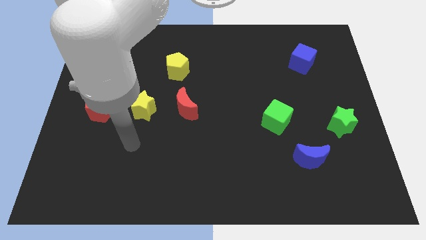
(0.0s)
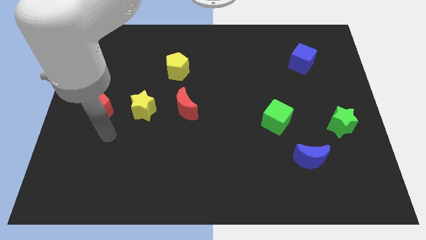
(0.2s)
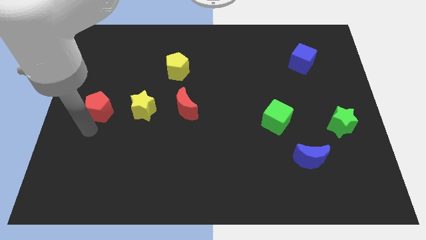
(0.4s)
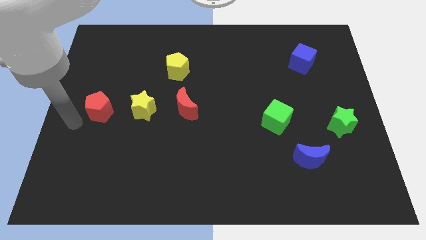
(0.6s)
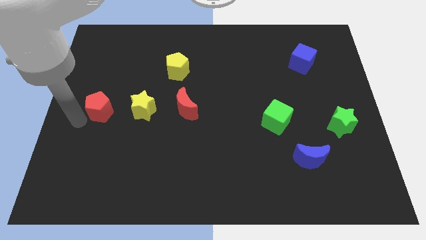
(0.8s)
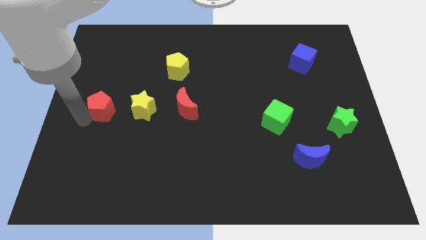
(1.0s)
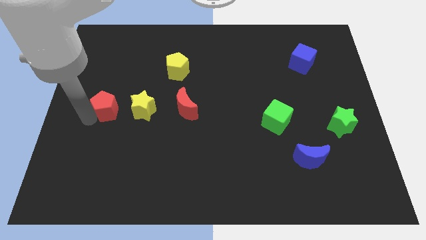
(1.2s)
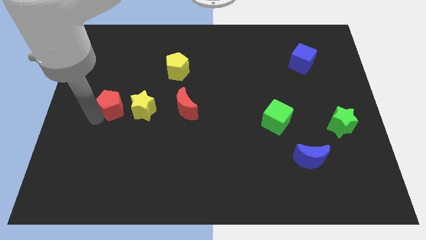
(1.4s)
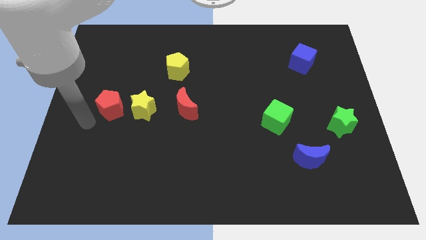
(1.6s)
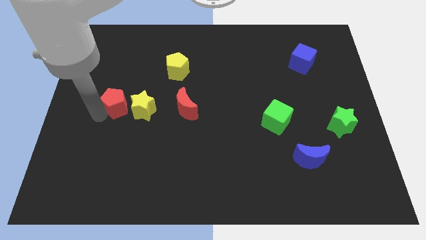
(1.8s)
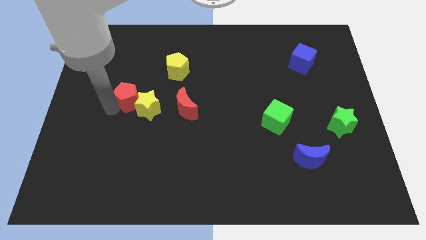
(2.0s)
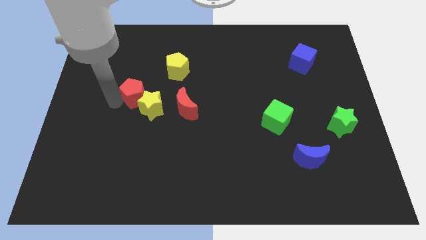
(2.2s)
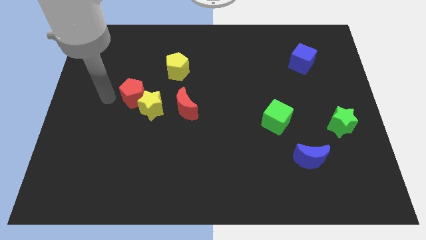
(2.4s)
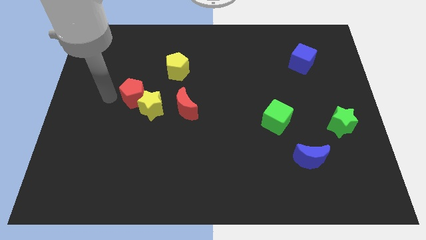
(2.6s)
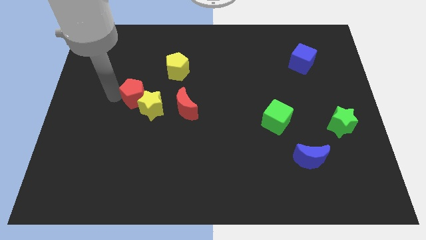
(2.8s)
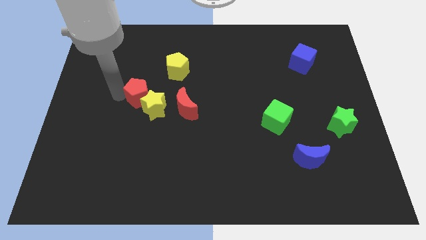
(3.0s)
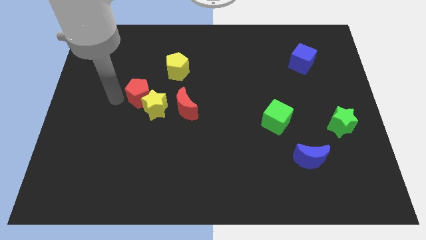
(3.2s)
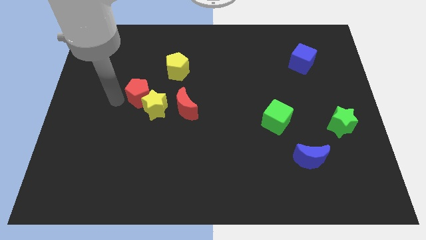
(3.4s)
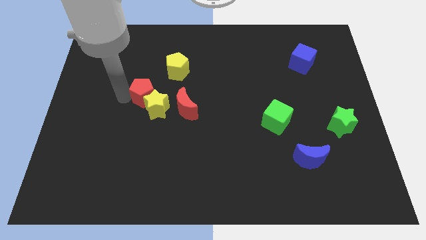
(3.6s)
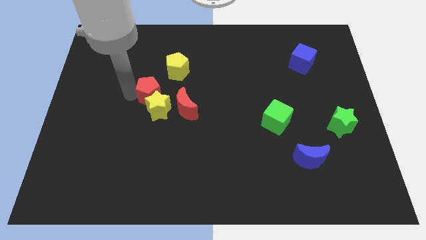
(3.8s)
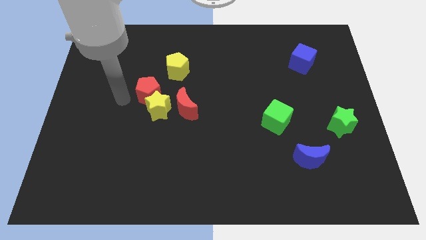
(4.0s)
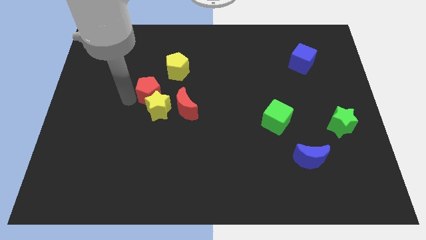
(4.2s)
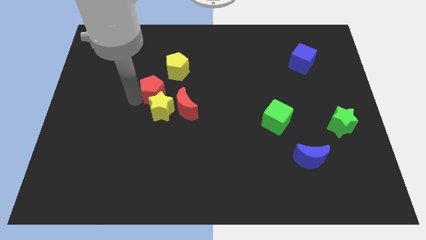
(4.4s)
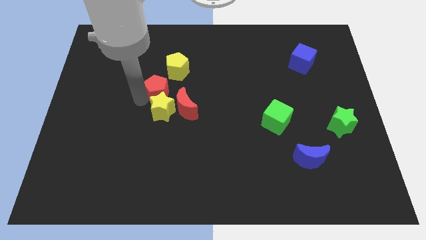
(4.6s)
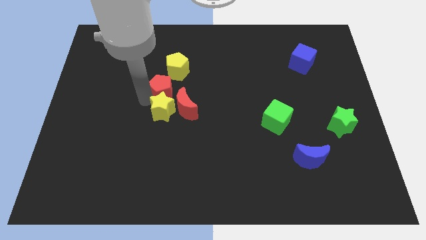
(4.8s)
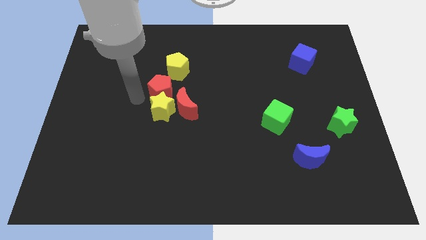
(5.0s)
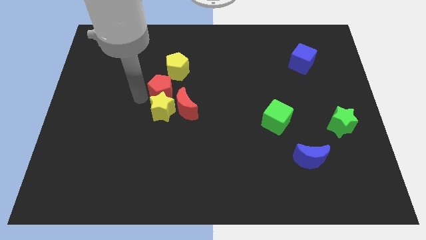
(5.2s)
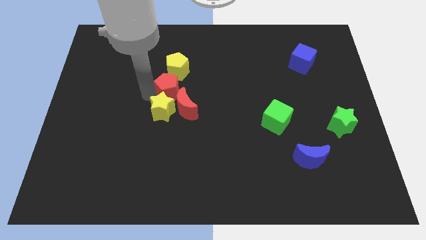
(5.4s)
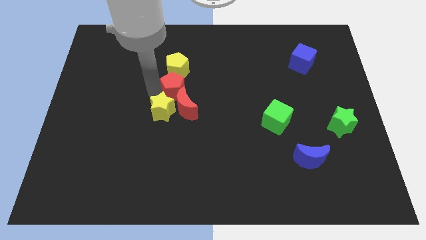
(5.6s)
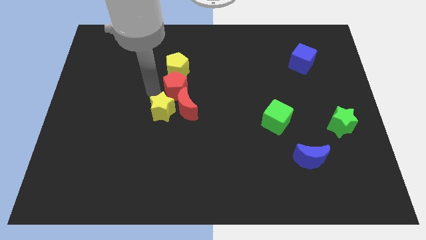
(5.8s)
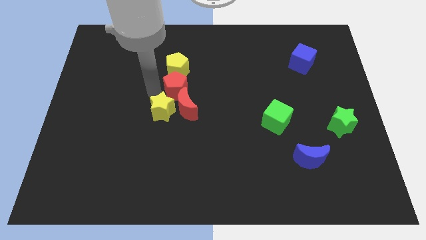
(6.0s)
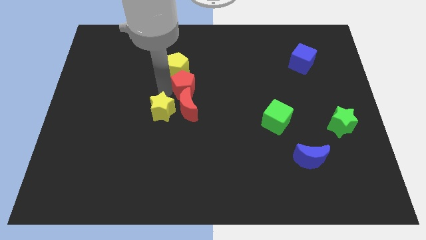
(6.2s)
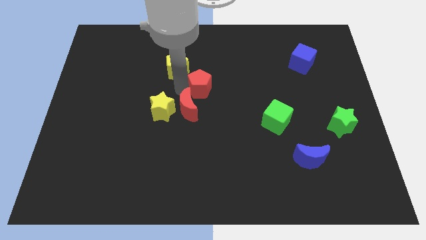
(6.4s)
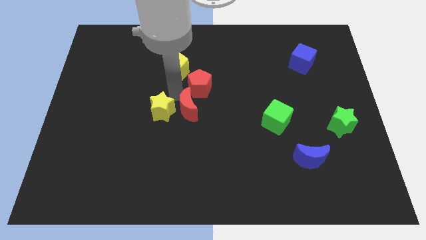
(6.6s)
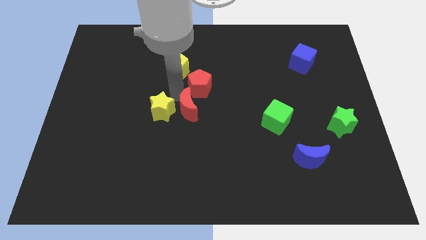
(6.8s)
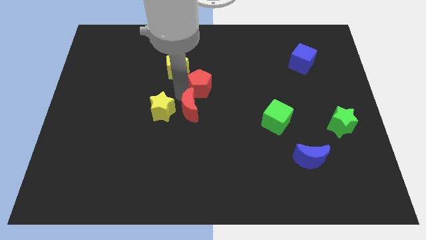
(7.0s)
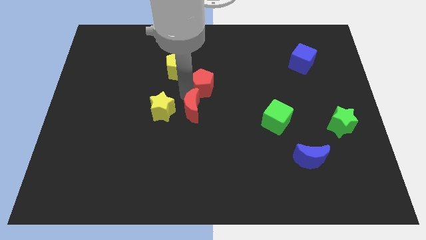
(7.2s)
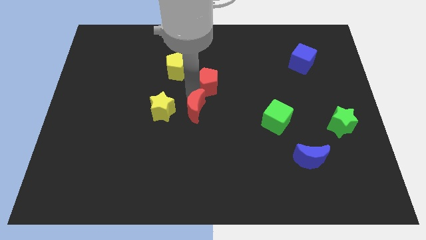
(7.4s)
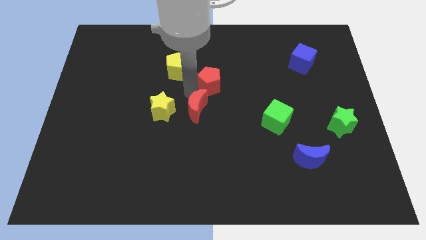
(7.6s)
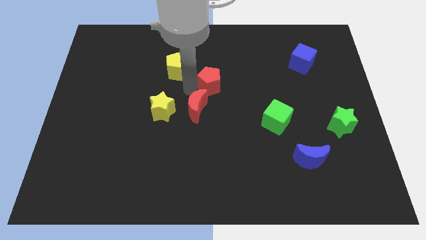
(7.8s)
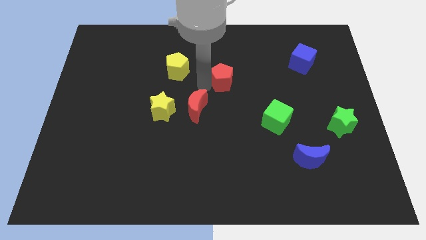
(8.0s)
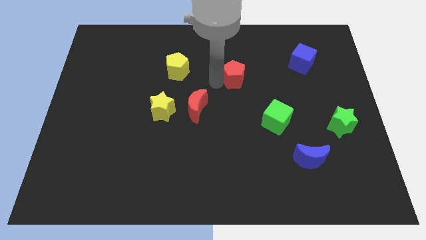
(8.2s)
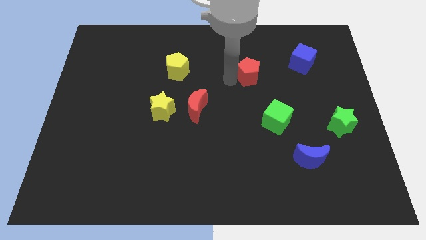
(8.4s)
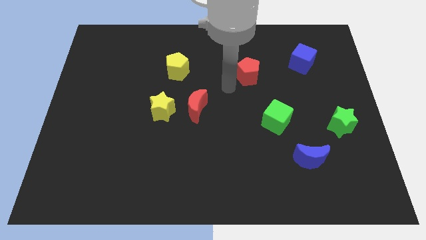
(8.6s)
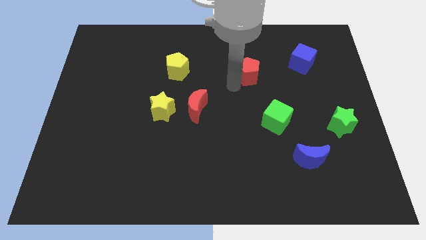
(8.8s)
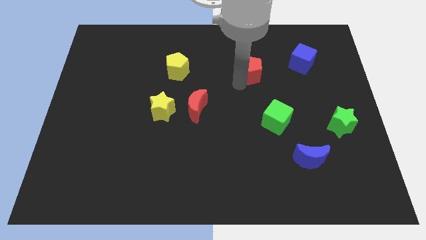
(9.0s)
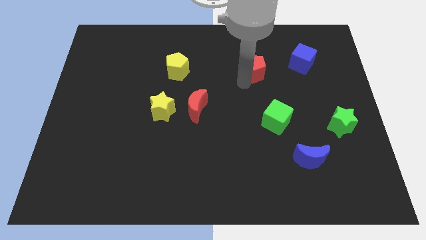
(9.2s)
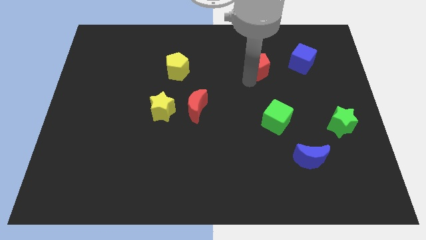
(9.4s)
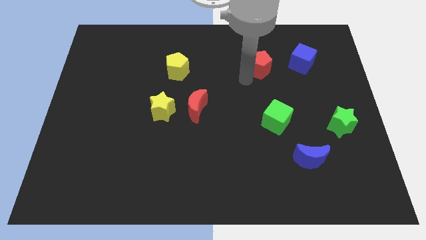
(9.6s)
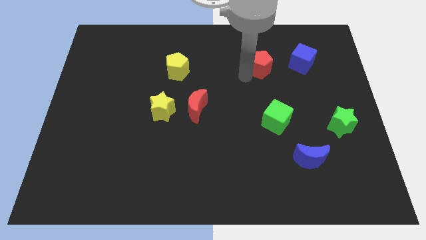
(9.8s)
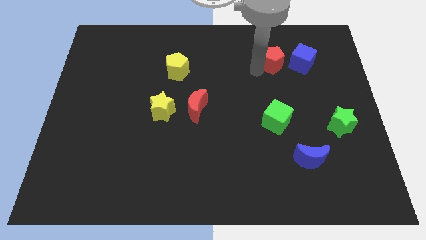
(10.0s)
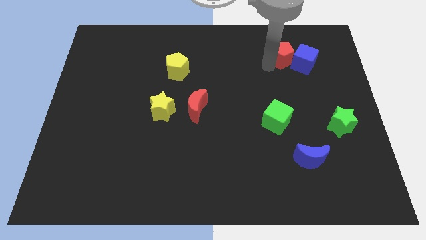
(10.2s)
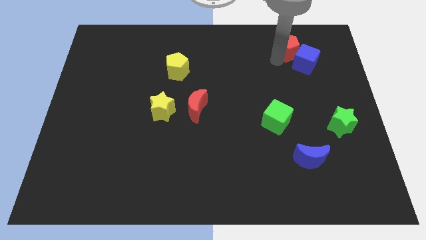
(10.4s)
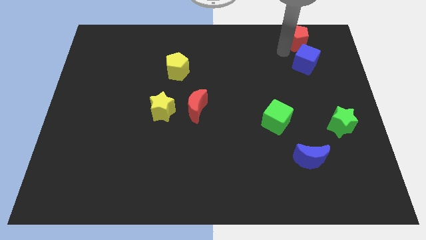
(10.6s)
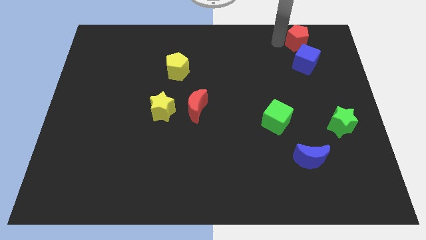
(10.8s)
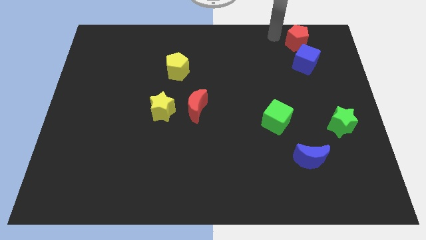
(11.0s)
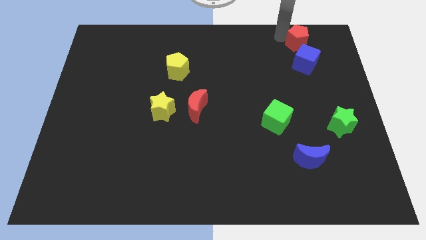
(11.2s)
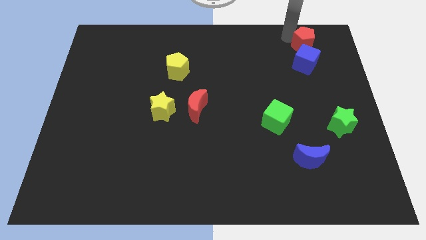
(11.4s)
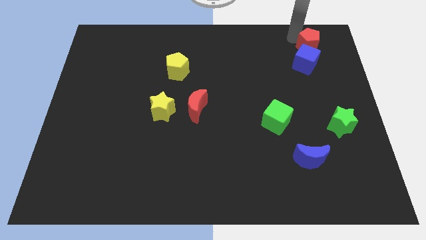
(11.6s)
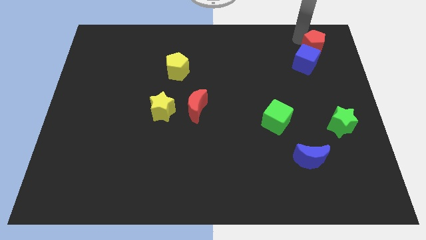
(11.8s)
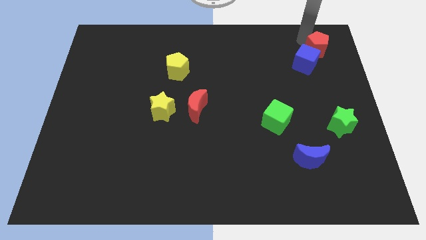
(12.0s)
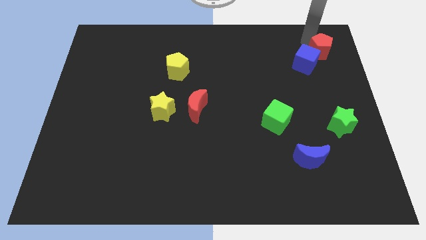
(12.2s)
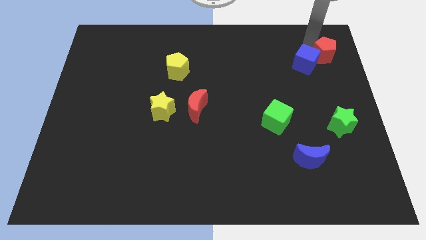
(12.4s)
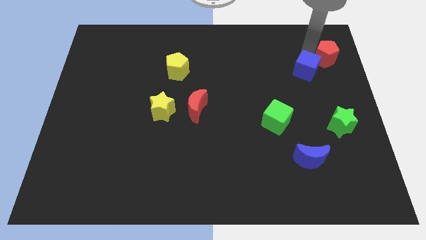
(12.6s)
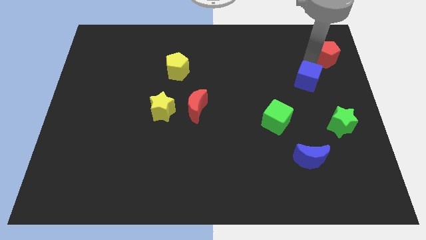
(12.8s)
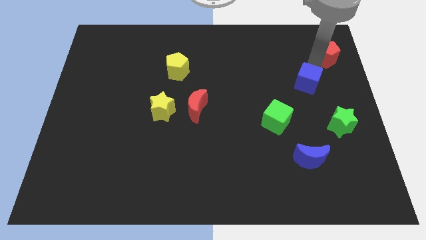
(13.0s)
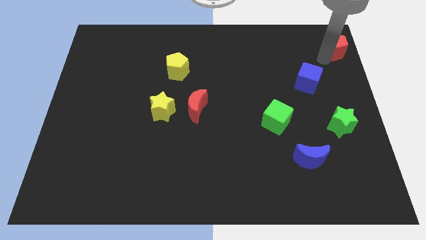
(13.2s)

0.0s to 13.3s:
put the red pentagon to the upper right corner
